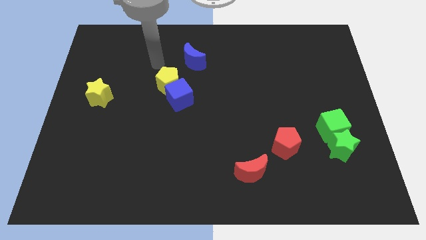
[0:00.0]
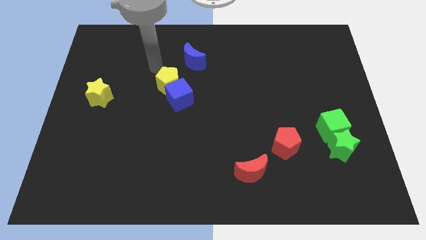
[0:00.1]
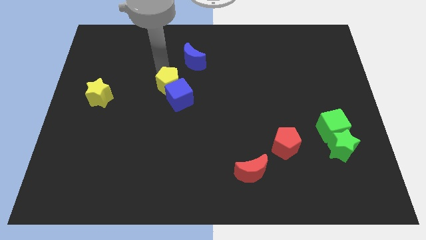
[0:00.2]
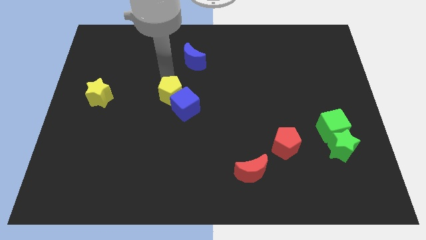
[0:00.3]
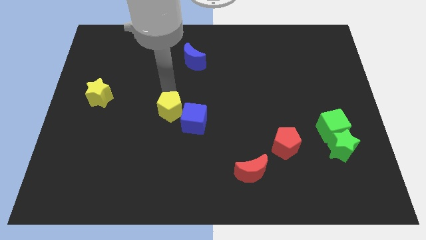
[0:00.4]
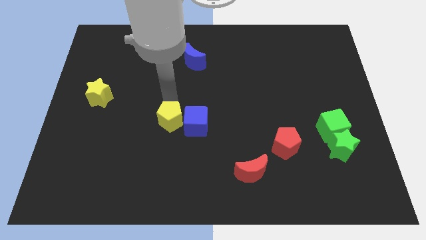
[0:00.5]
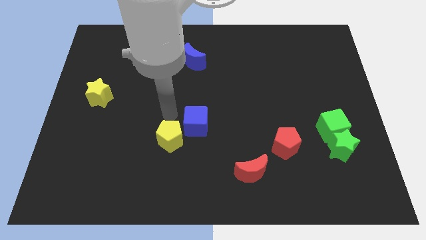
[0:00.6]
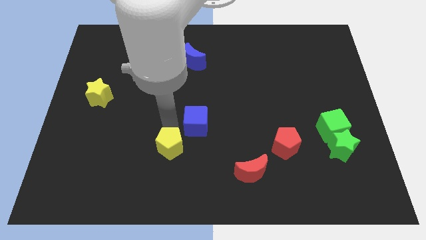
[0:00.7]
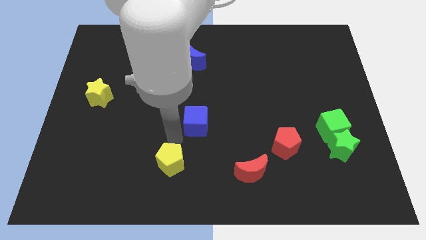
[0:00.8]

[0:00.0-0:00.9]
move the blue cube away from the yellow pentagon

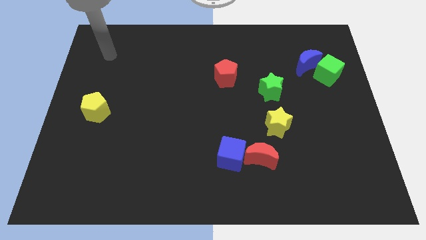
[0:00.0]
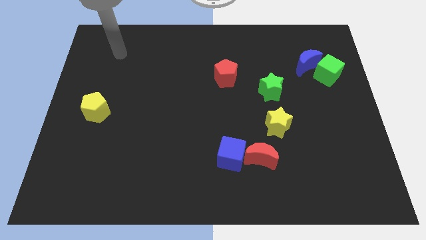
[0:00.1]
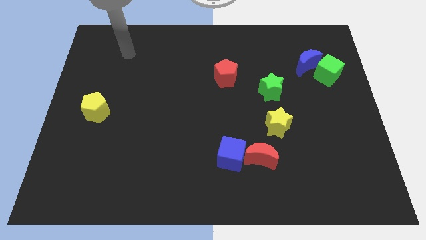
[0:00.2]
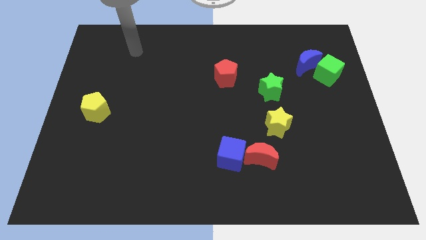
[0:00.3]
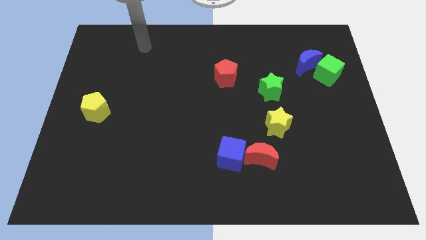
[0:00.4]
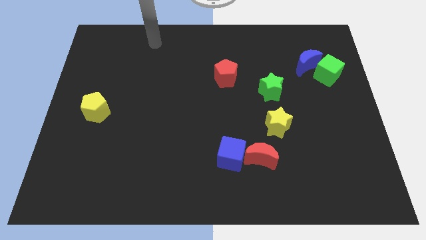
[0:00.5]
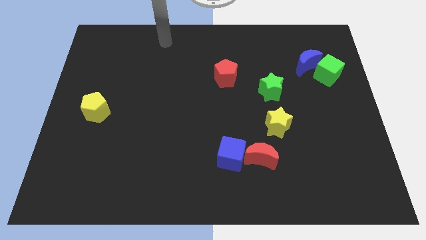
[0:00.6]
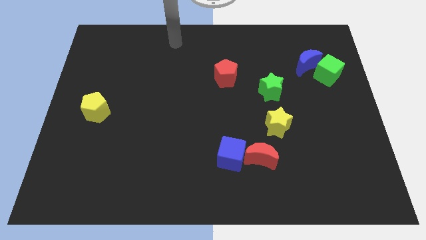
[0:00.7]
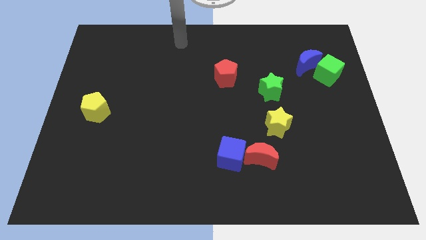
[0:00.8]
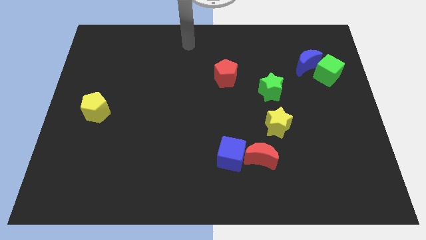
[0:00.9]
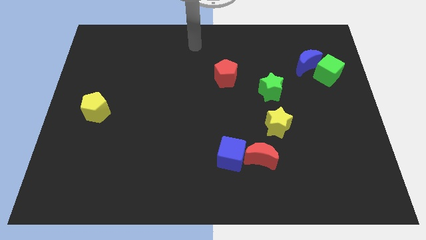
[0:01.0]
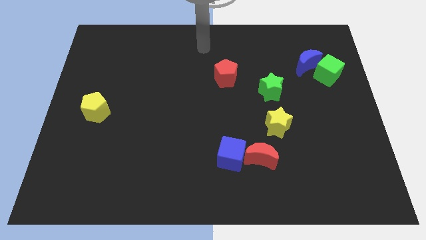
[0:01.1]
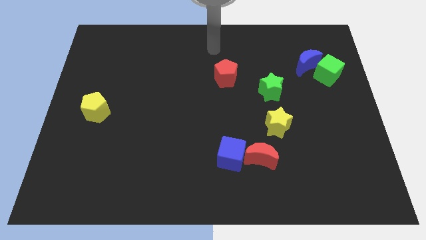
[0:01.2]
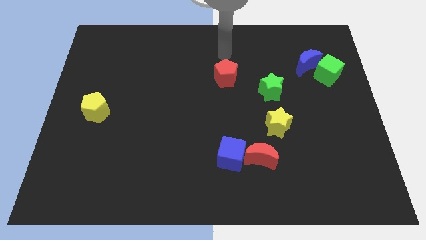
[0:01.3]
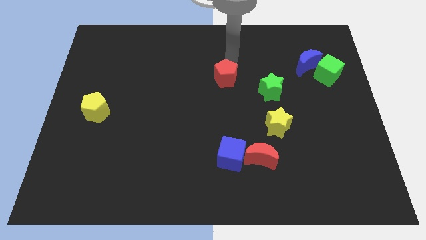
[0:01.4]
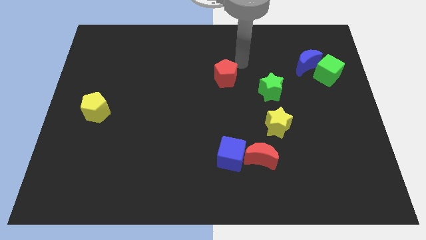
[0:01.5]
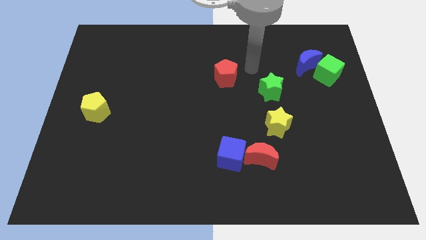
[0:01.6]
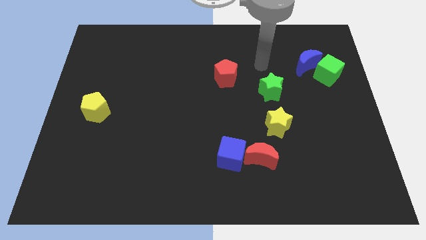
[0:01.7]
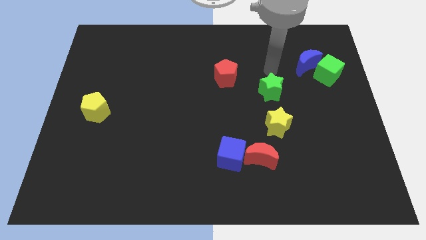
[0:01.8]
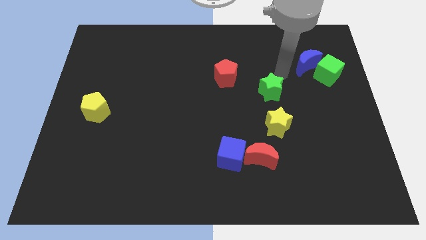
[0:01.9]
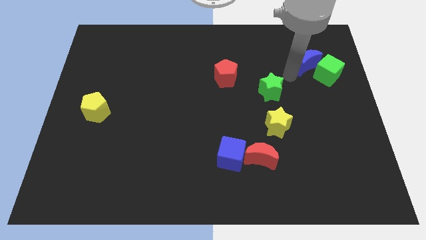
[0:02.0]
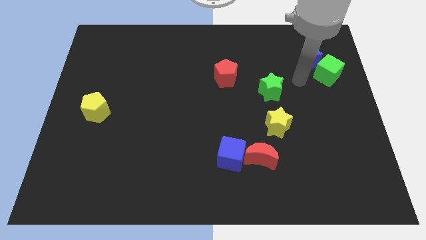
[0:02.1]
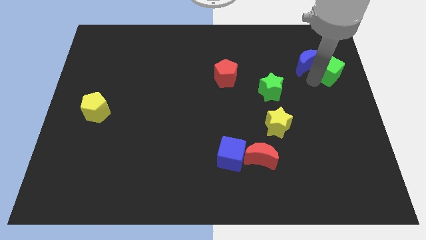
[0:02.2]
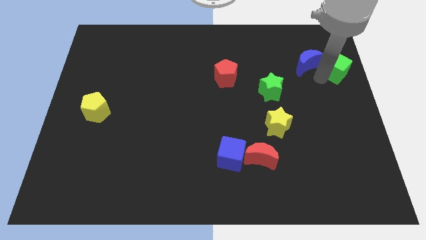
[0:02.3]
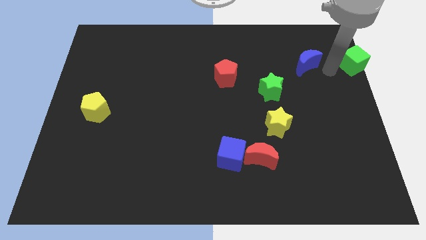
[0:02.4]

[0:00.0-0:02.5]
move the blue moon away from the green cube

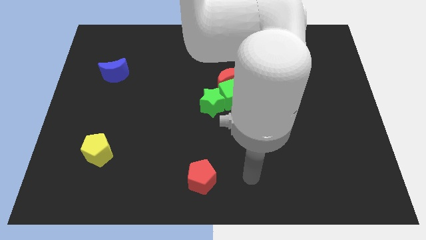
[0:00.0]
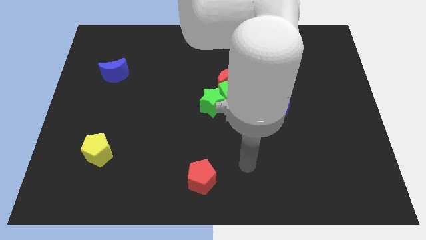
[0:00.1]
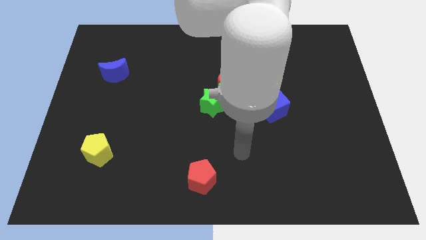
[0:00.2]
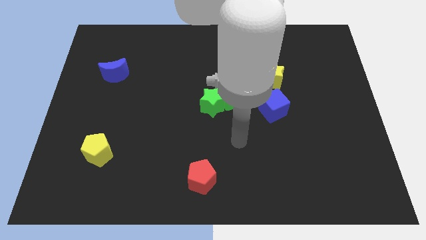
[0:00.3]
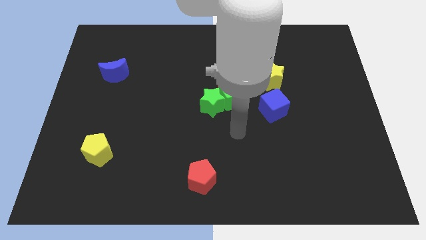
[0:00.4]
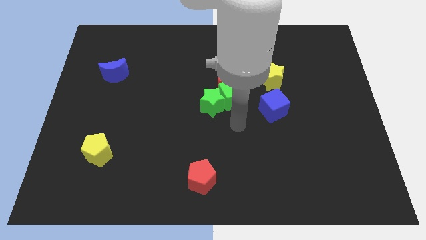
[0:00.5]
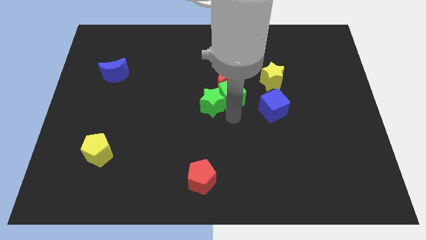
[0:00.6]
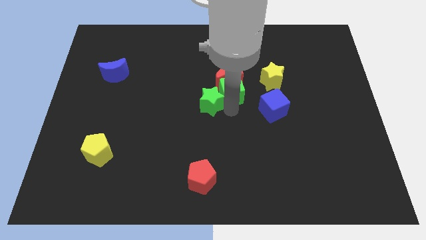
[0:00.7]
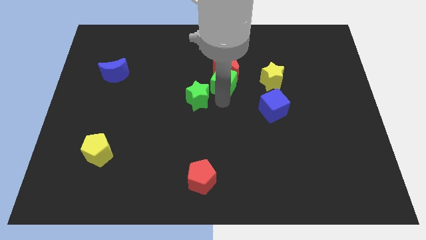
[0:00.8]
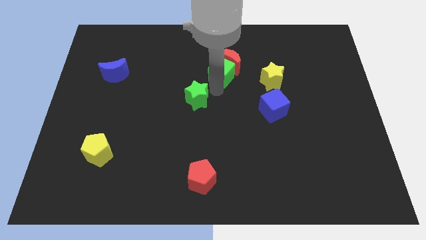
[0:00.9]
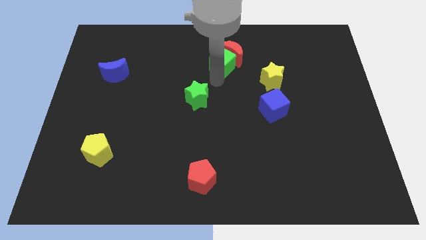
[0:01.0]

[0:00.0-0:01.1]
separate the red moon from the green cube and green star

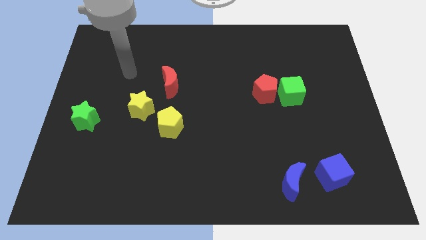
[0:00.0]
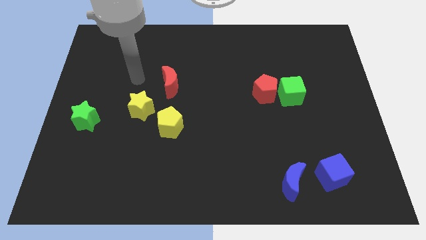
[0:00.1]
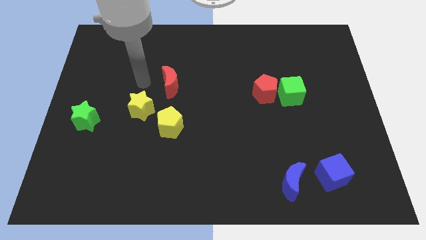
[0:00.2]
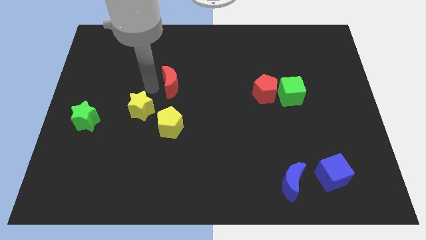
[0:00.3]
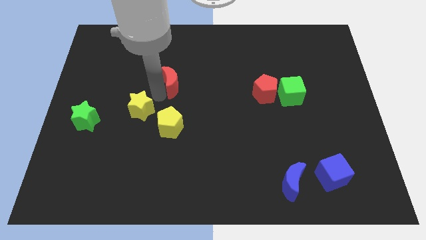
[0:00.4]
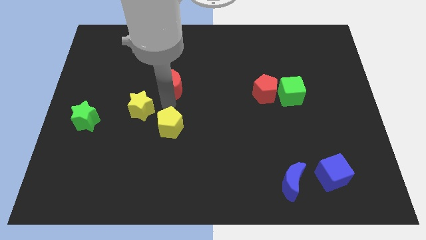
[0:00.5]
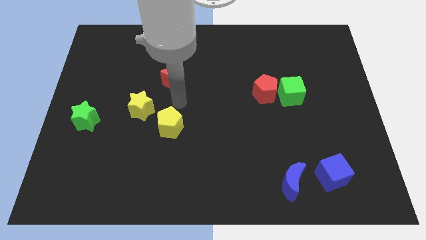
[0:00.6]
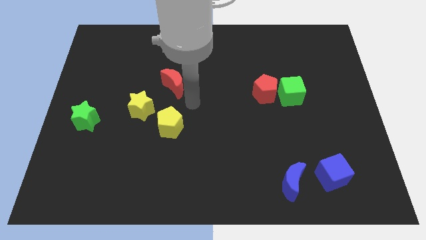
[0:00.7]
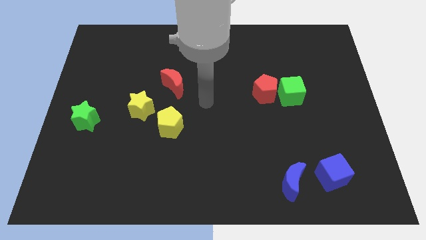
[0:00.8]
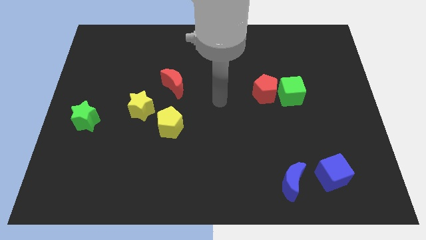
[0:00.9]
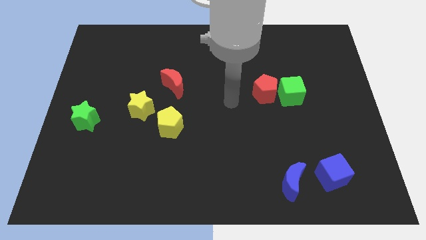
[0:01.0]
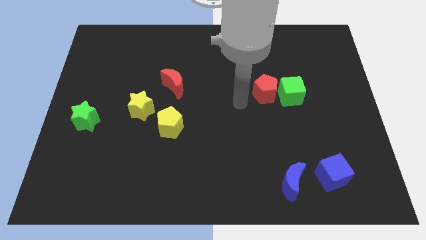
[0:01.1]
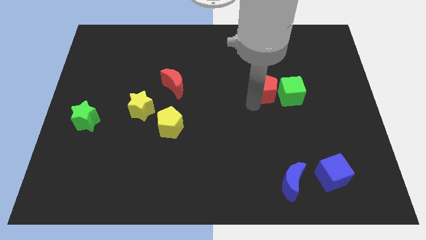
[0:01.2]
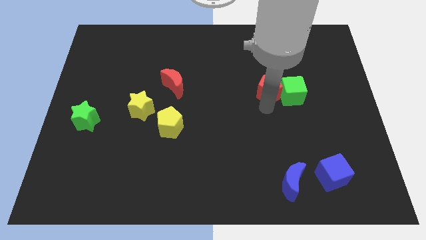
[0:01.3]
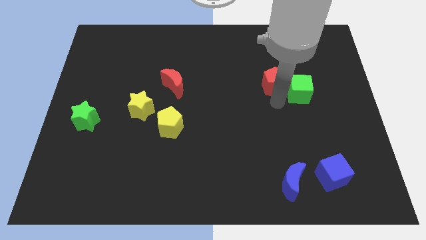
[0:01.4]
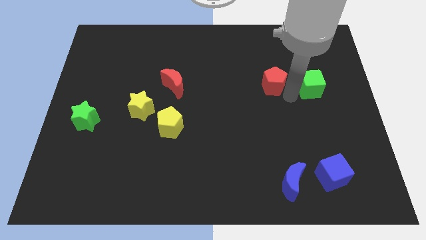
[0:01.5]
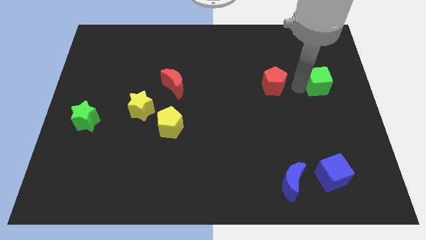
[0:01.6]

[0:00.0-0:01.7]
pull the red pentagon apart from the green cube

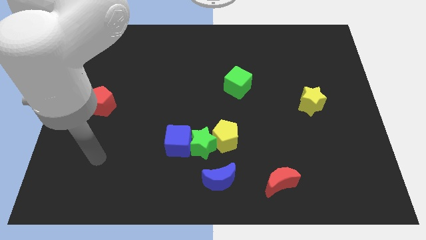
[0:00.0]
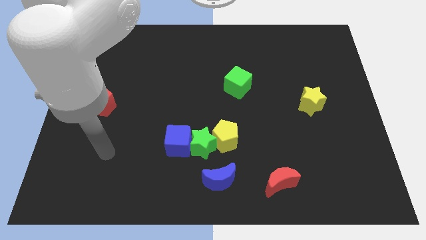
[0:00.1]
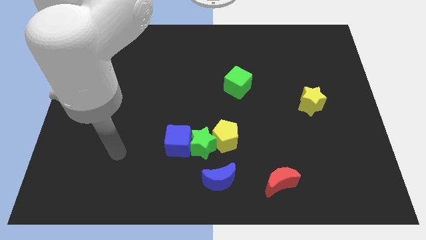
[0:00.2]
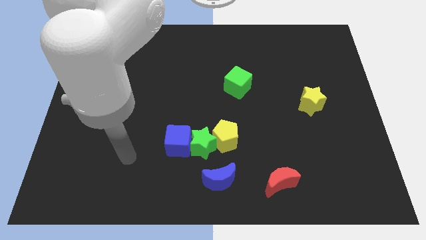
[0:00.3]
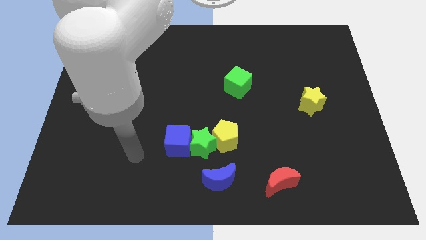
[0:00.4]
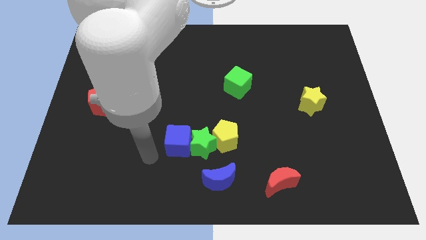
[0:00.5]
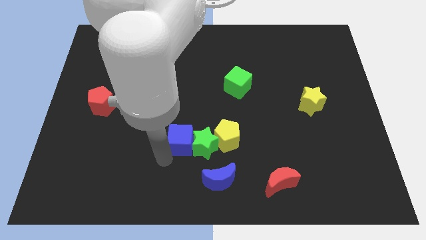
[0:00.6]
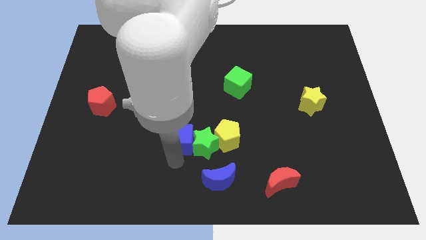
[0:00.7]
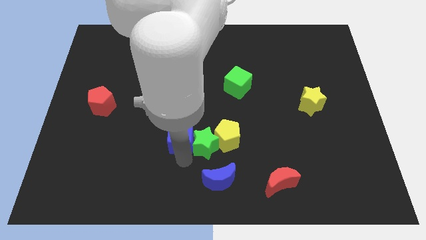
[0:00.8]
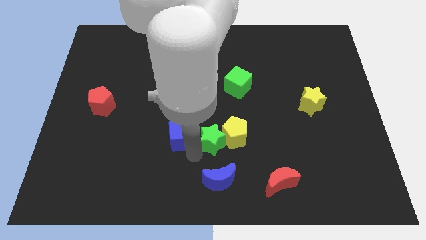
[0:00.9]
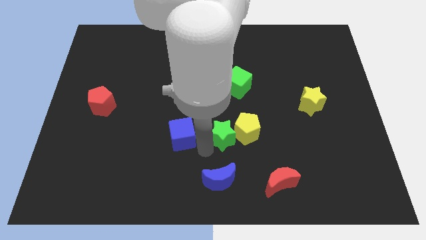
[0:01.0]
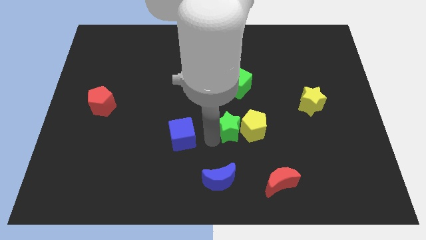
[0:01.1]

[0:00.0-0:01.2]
pull the blue cube apart from the green star

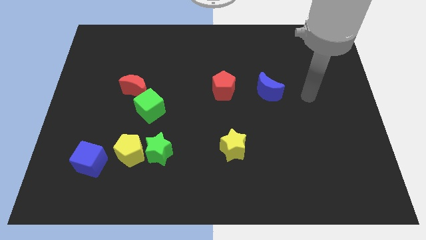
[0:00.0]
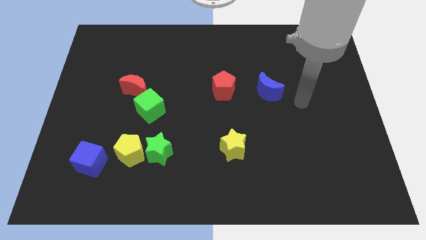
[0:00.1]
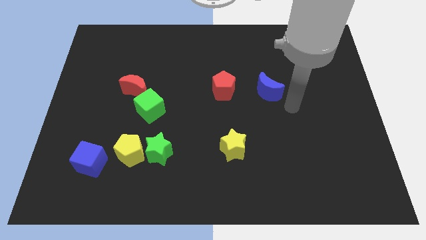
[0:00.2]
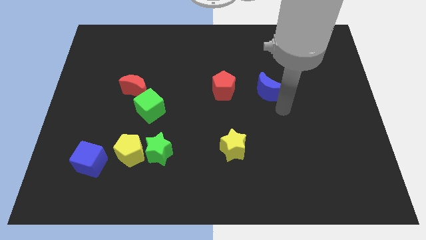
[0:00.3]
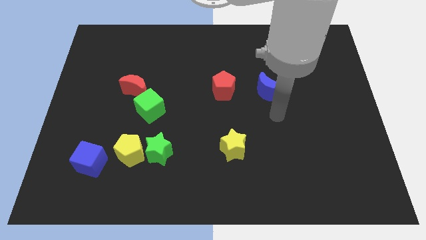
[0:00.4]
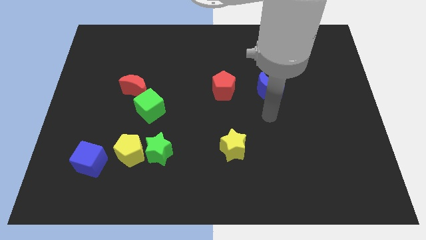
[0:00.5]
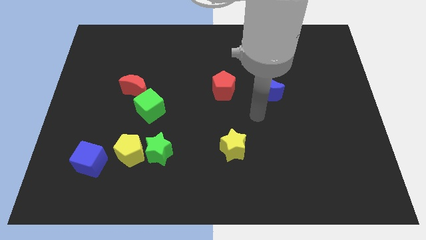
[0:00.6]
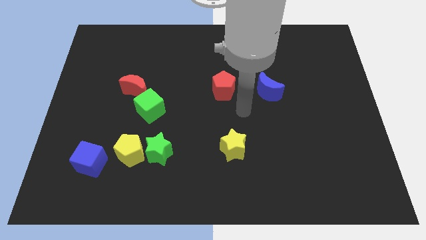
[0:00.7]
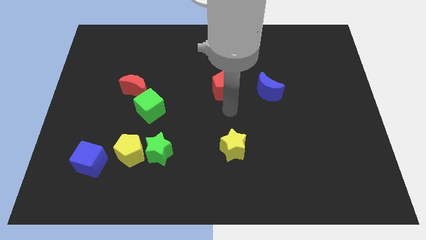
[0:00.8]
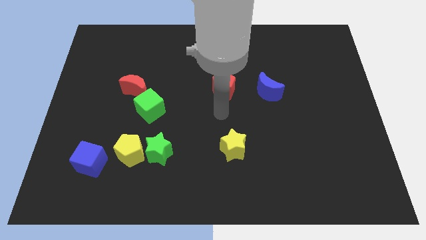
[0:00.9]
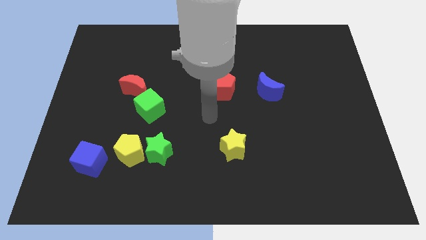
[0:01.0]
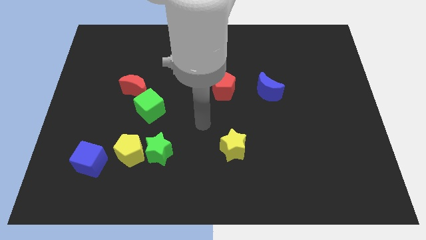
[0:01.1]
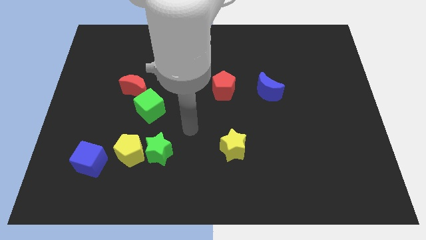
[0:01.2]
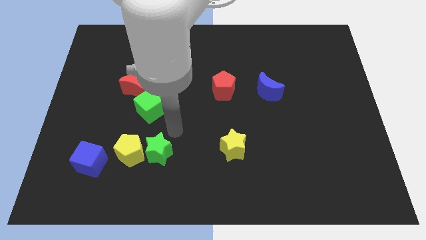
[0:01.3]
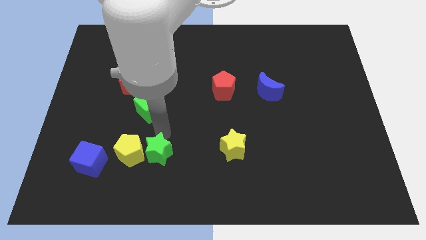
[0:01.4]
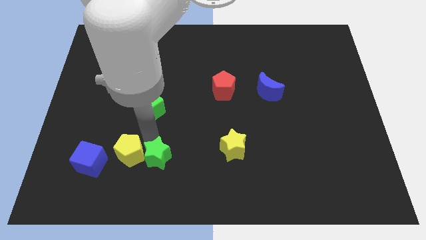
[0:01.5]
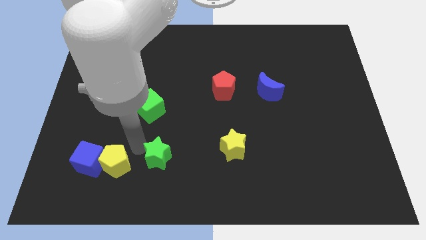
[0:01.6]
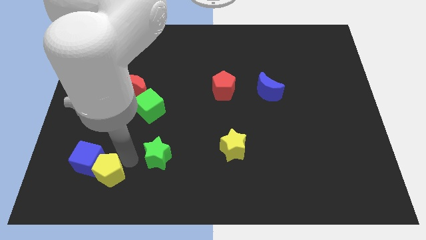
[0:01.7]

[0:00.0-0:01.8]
separate the green star from the yellow pentagon
